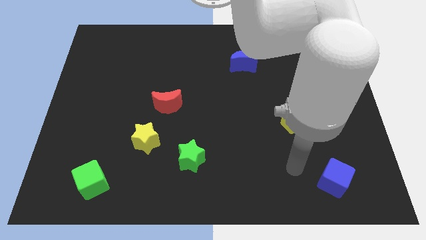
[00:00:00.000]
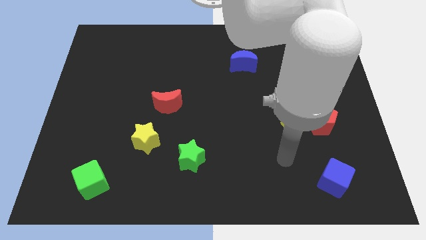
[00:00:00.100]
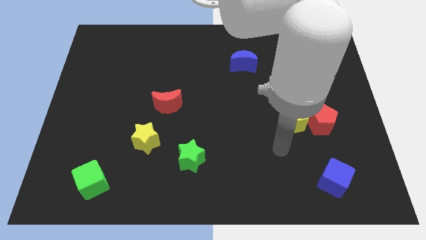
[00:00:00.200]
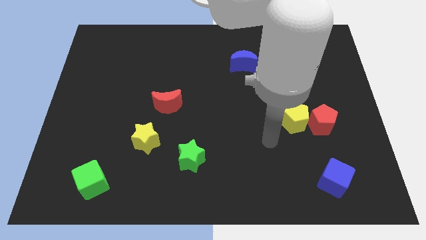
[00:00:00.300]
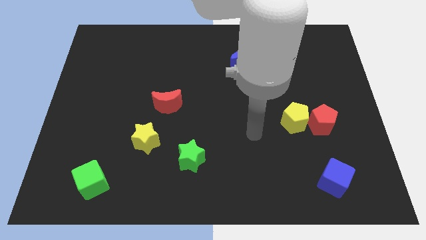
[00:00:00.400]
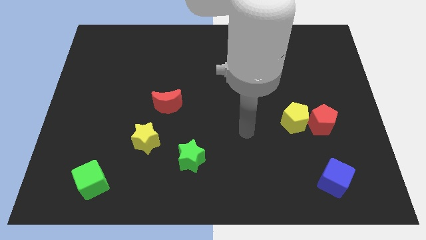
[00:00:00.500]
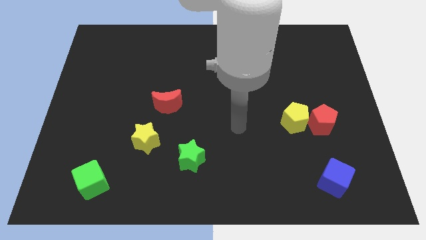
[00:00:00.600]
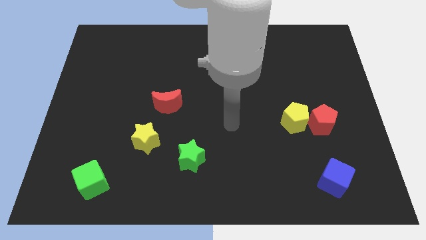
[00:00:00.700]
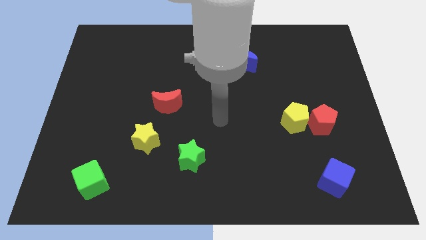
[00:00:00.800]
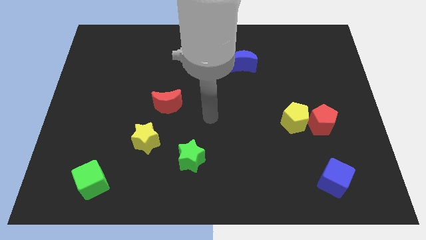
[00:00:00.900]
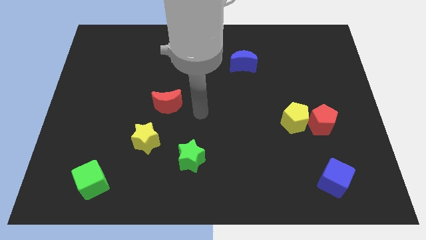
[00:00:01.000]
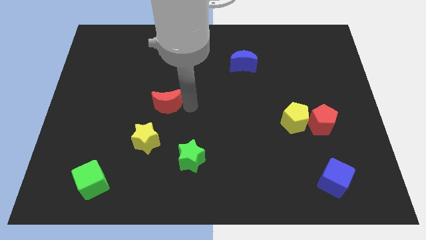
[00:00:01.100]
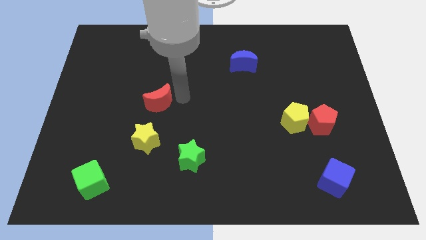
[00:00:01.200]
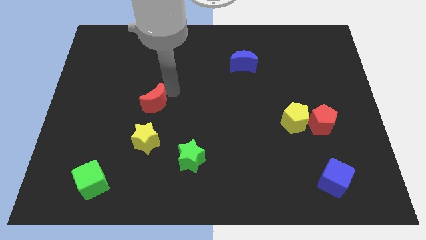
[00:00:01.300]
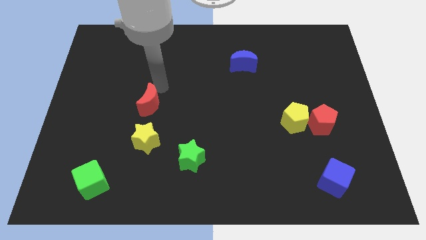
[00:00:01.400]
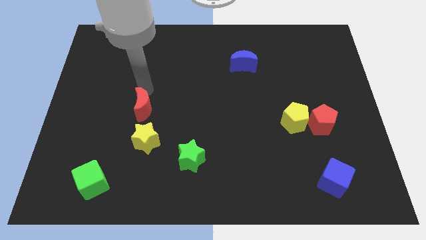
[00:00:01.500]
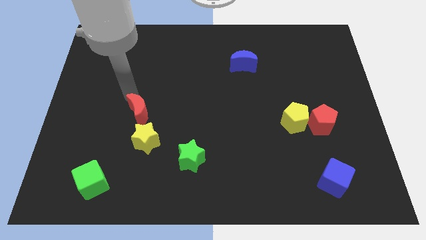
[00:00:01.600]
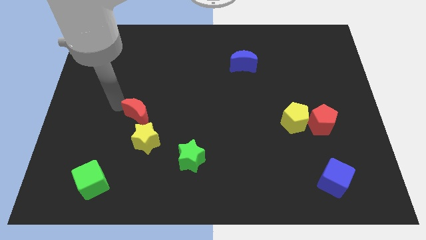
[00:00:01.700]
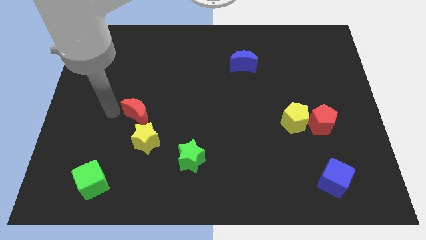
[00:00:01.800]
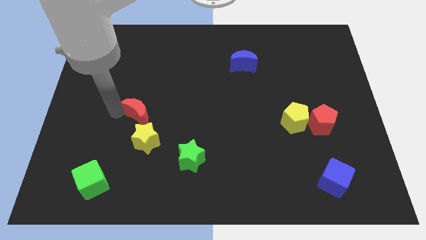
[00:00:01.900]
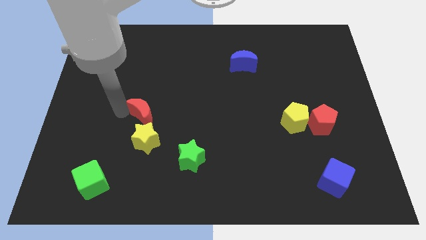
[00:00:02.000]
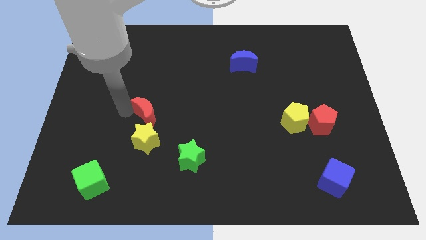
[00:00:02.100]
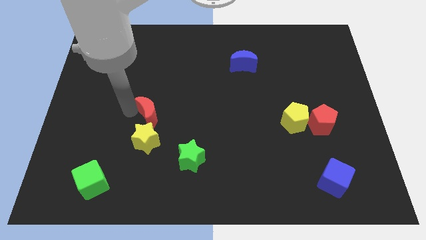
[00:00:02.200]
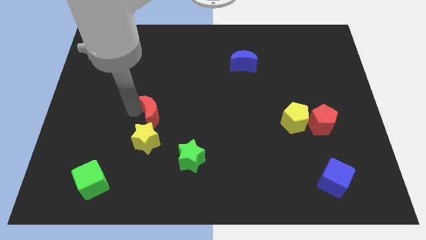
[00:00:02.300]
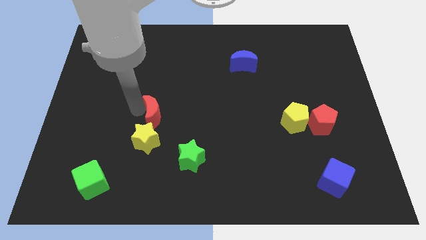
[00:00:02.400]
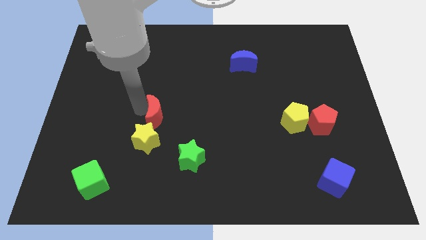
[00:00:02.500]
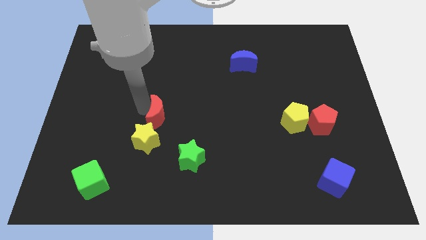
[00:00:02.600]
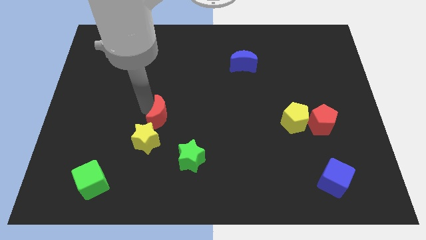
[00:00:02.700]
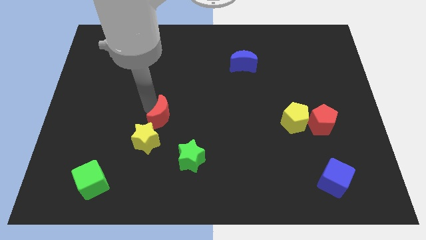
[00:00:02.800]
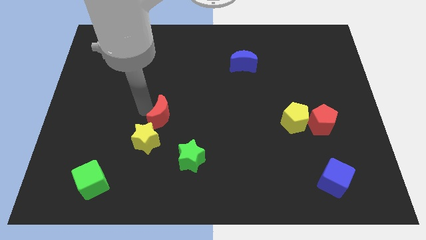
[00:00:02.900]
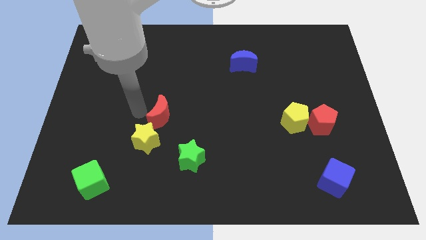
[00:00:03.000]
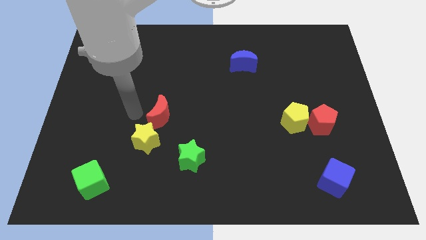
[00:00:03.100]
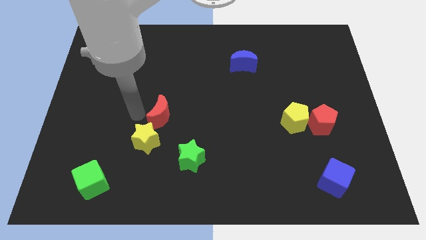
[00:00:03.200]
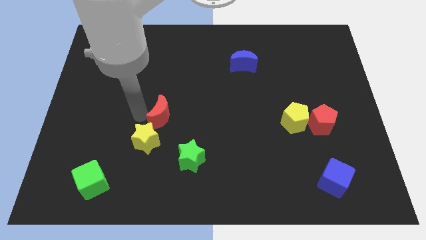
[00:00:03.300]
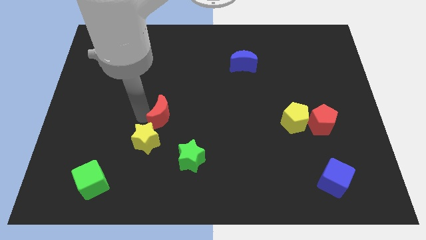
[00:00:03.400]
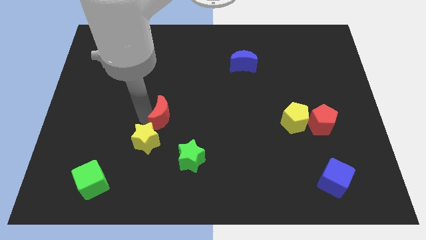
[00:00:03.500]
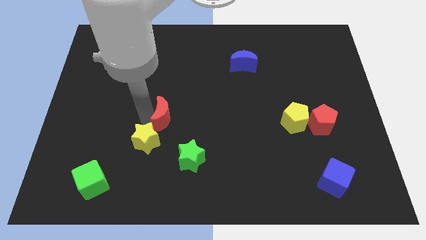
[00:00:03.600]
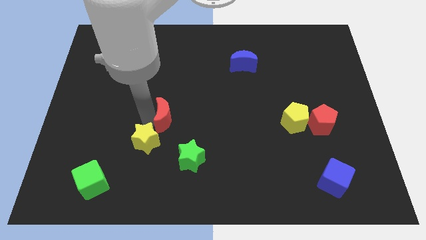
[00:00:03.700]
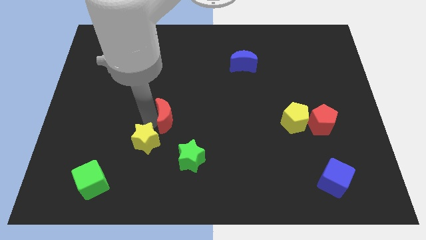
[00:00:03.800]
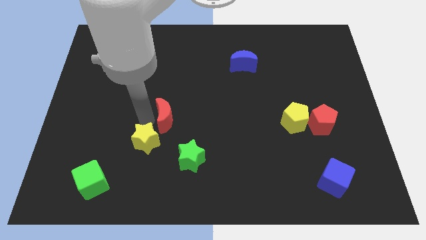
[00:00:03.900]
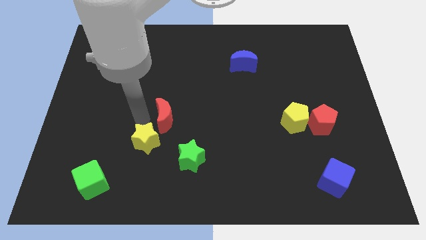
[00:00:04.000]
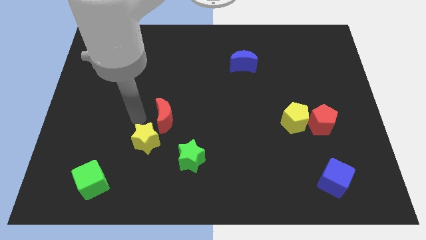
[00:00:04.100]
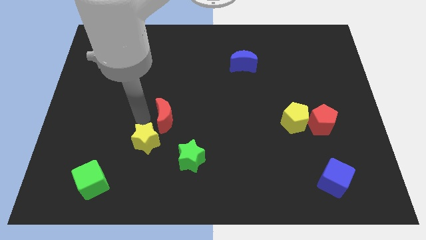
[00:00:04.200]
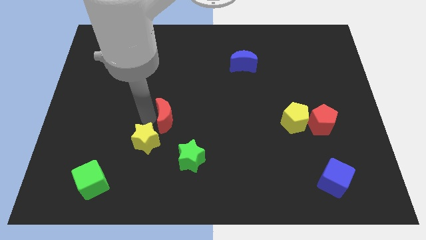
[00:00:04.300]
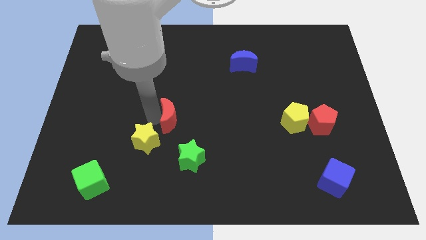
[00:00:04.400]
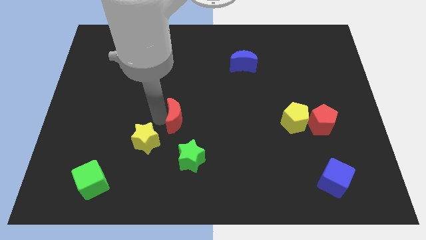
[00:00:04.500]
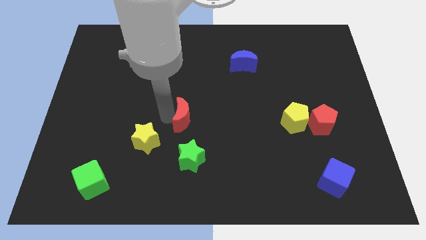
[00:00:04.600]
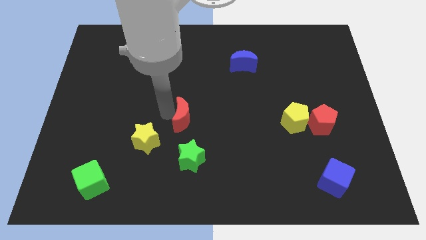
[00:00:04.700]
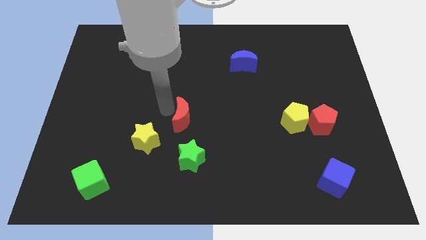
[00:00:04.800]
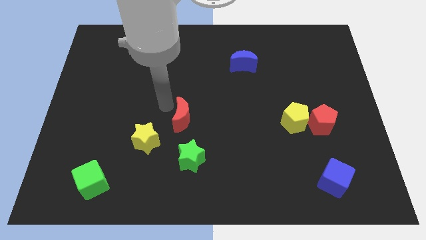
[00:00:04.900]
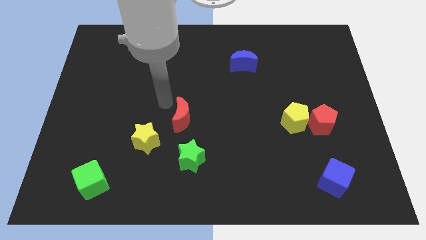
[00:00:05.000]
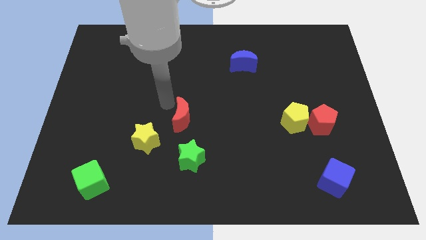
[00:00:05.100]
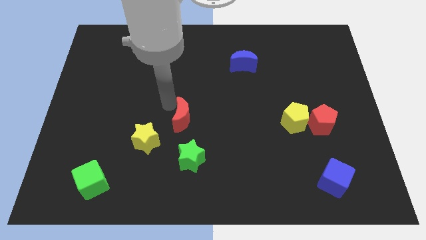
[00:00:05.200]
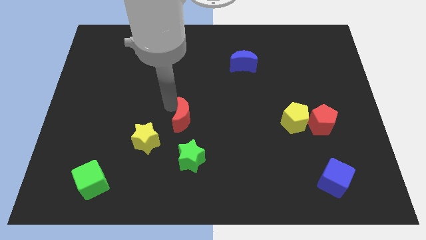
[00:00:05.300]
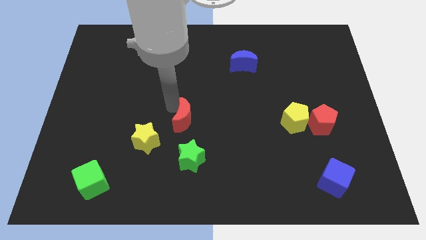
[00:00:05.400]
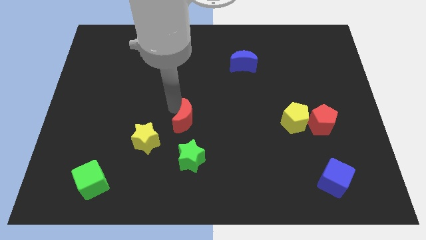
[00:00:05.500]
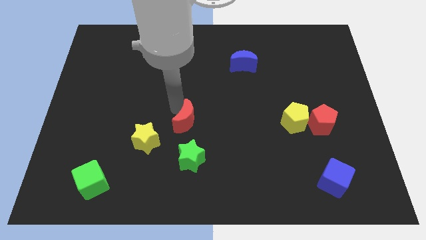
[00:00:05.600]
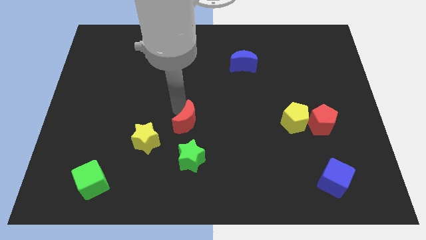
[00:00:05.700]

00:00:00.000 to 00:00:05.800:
slide the red moon somewhat downwards and to the right diagonally

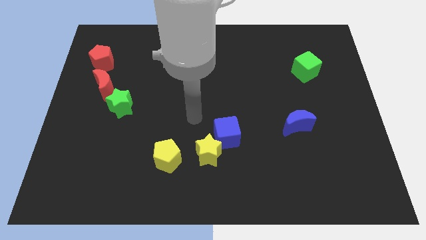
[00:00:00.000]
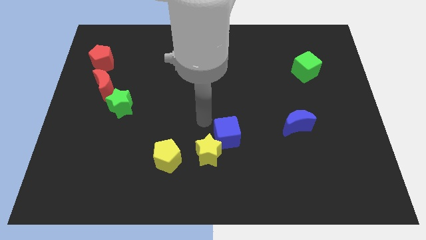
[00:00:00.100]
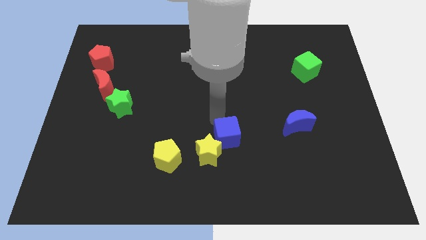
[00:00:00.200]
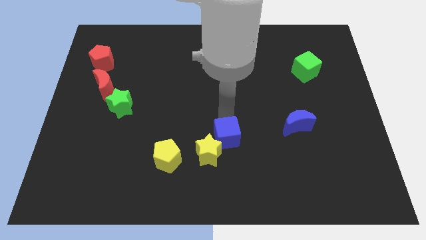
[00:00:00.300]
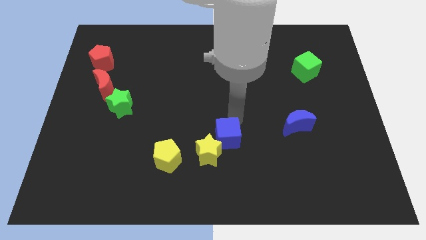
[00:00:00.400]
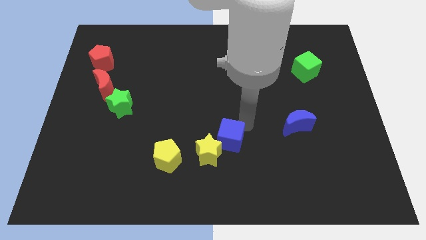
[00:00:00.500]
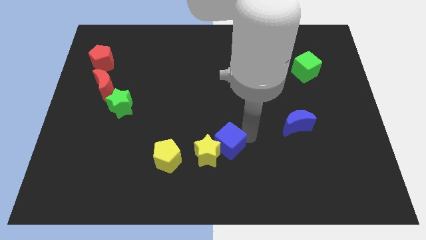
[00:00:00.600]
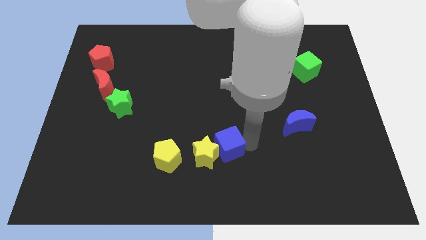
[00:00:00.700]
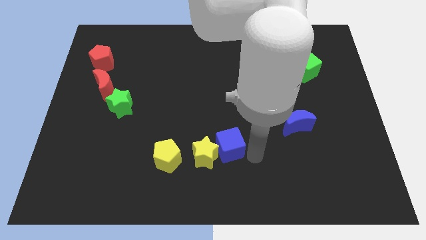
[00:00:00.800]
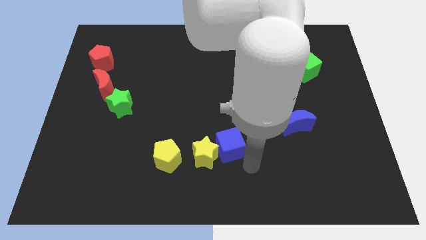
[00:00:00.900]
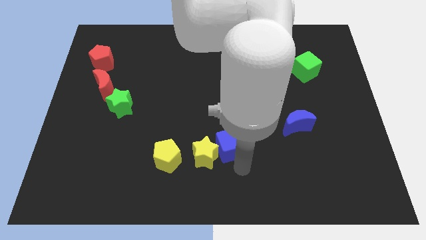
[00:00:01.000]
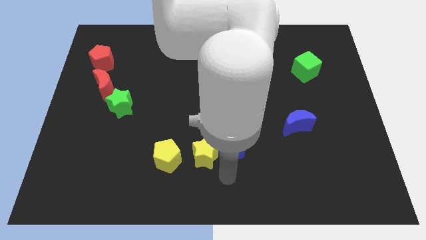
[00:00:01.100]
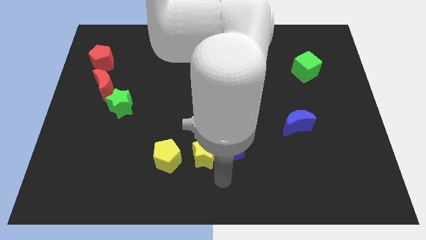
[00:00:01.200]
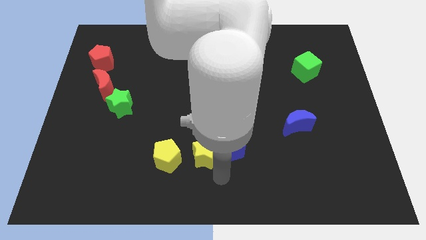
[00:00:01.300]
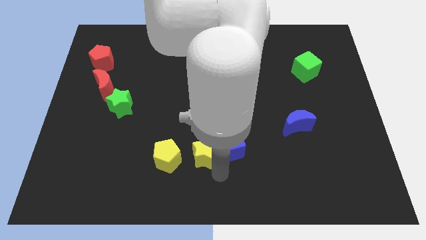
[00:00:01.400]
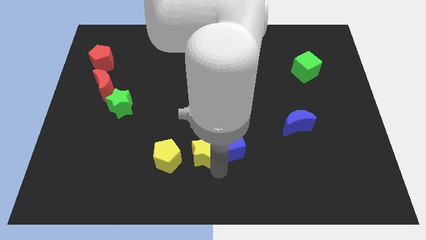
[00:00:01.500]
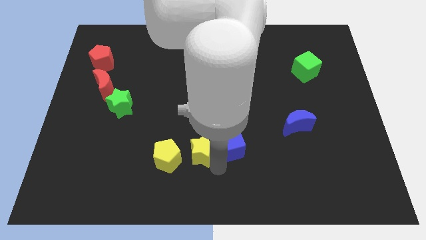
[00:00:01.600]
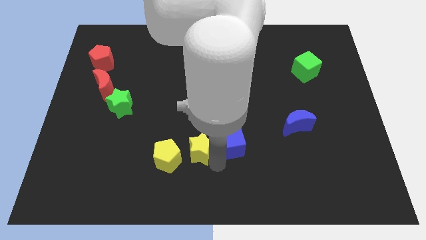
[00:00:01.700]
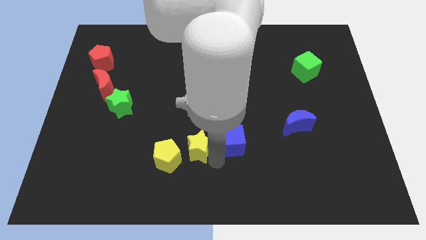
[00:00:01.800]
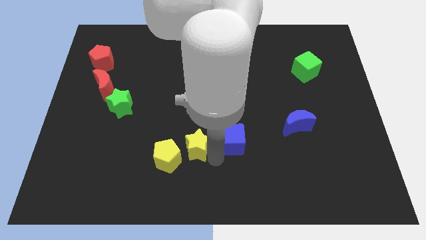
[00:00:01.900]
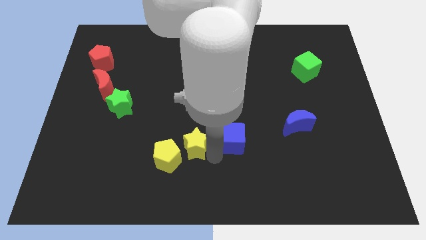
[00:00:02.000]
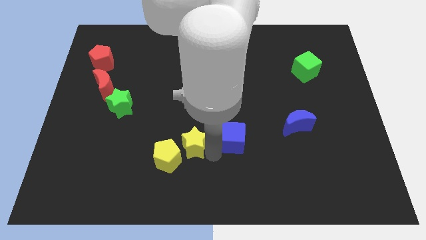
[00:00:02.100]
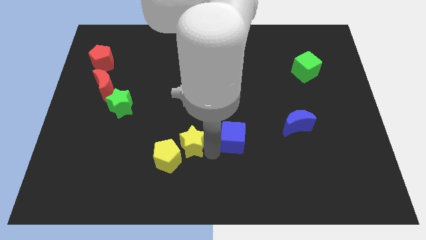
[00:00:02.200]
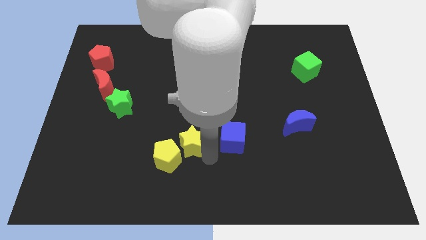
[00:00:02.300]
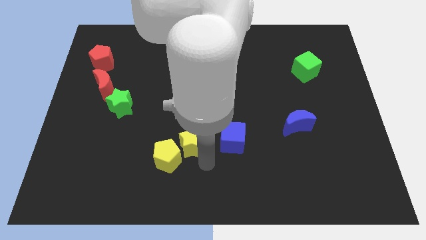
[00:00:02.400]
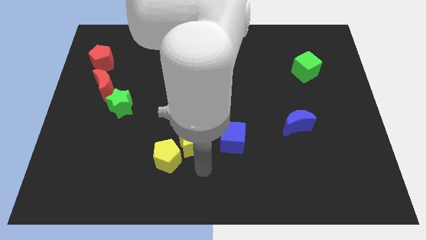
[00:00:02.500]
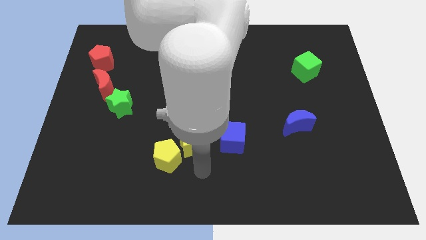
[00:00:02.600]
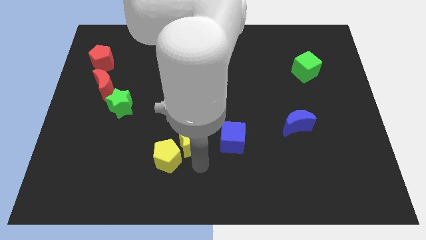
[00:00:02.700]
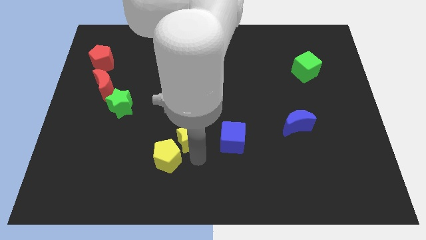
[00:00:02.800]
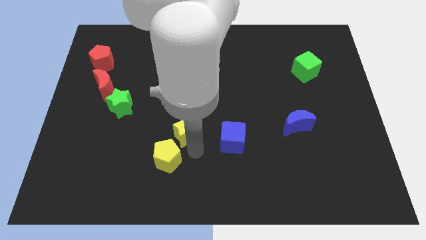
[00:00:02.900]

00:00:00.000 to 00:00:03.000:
move the yellow star slightly diagonally up and left
